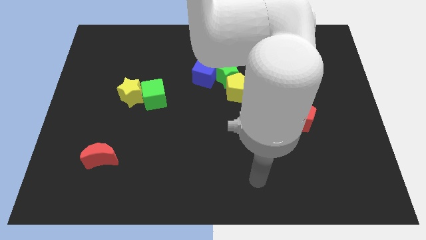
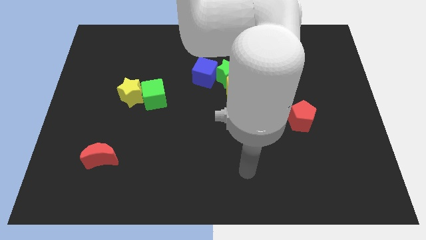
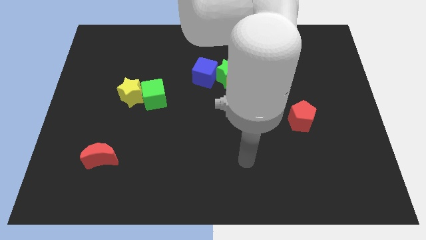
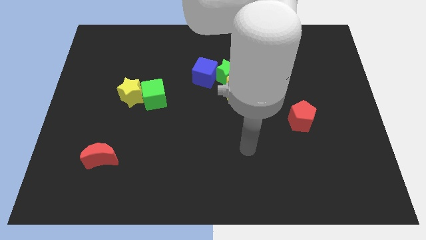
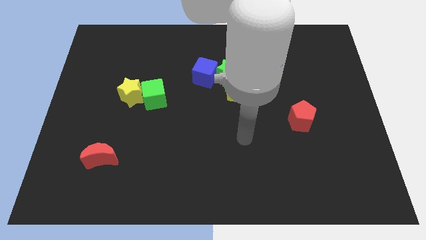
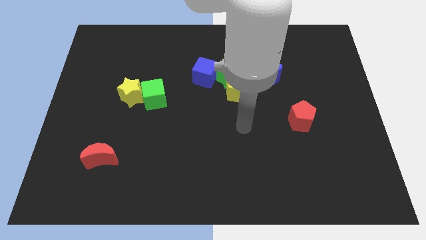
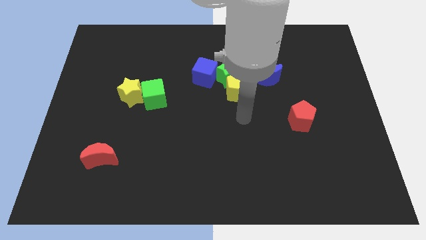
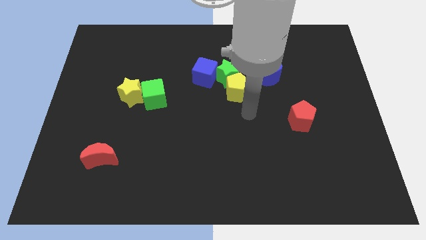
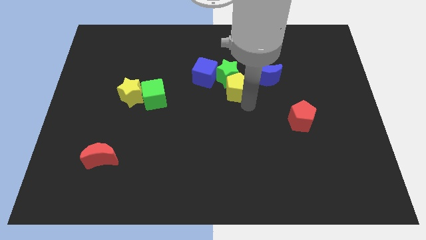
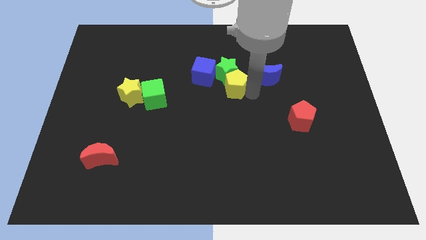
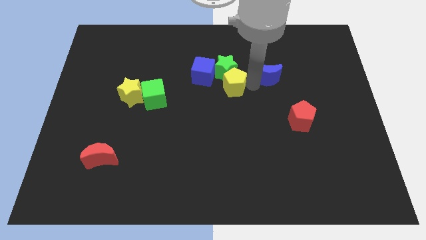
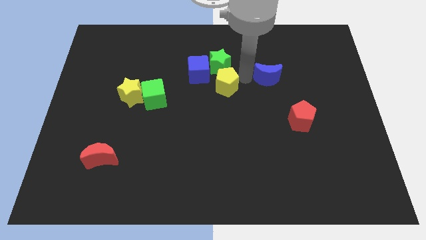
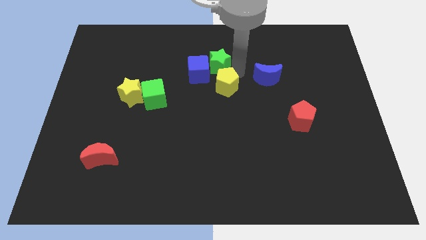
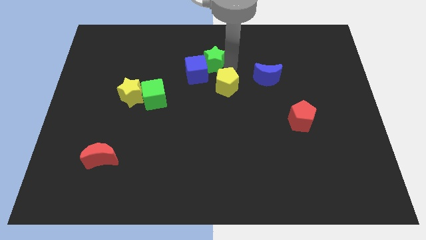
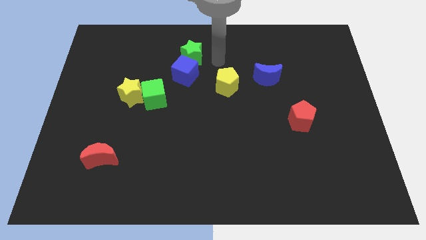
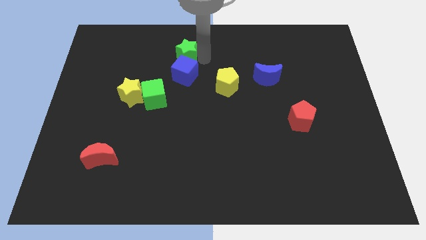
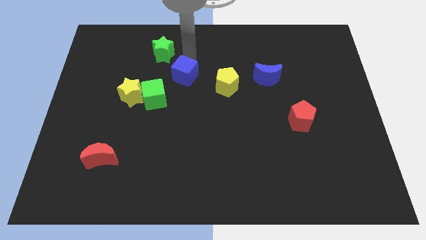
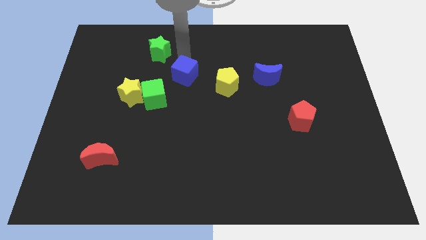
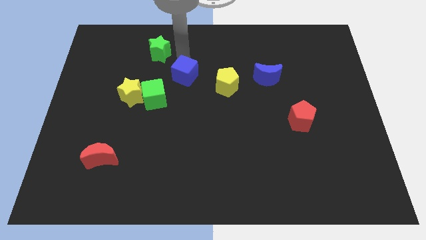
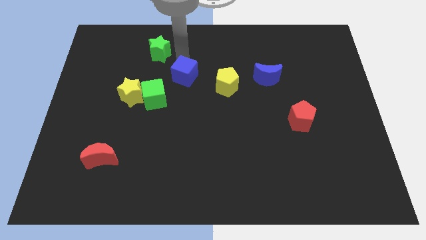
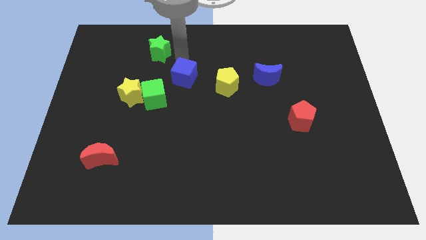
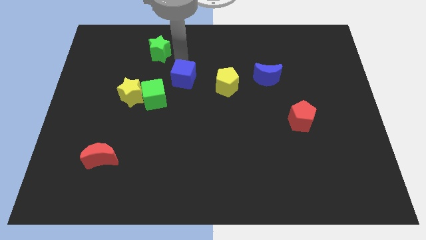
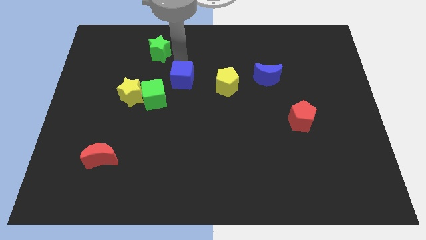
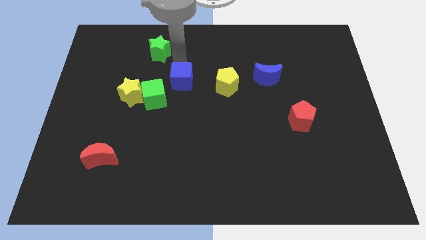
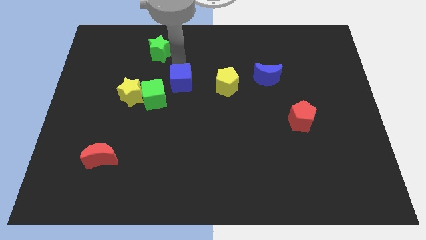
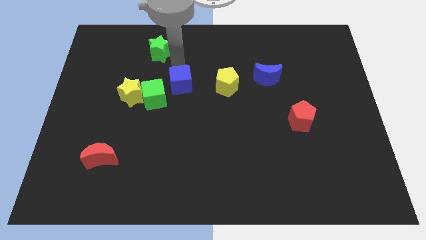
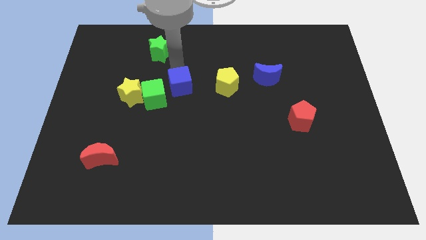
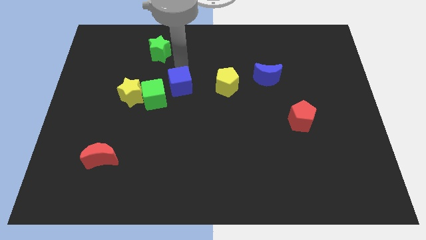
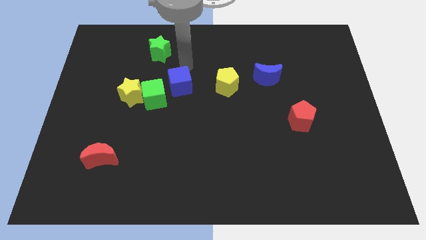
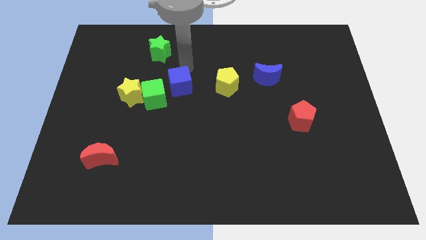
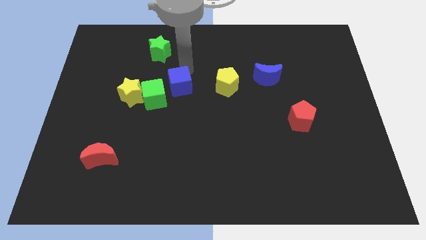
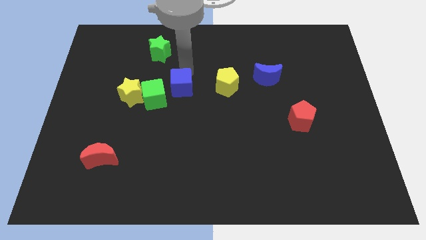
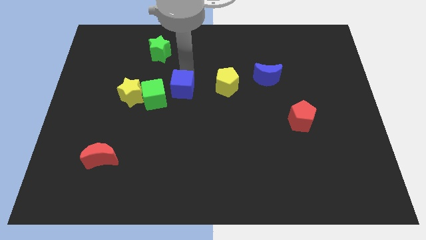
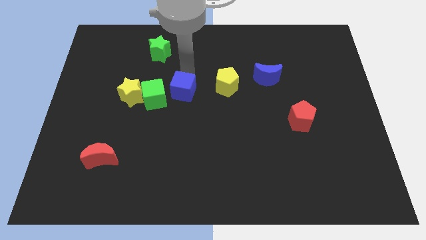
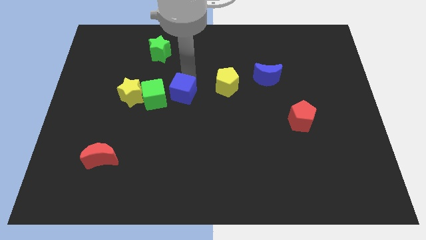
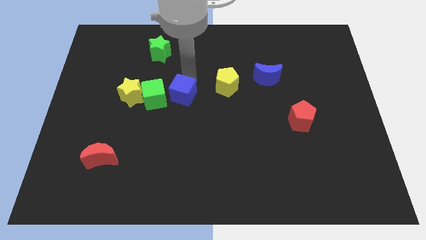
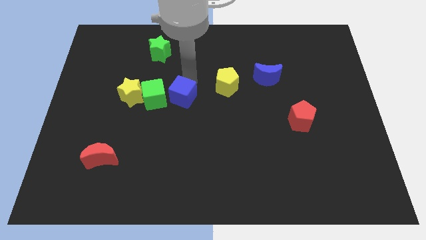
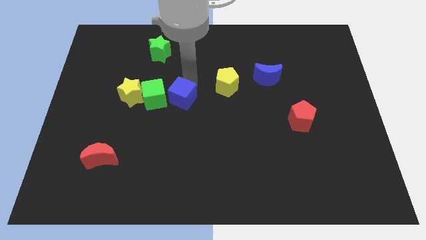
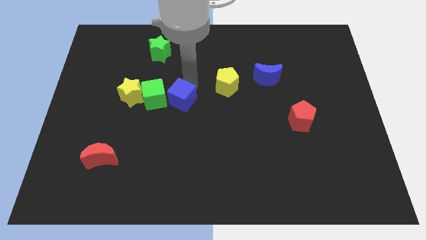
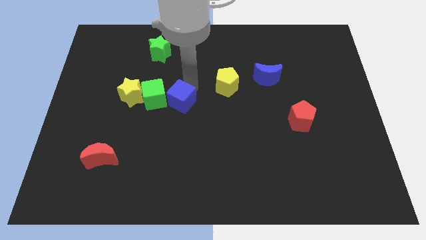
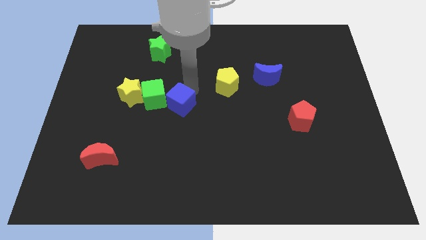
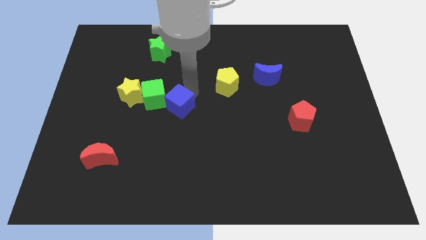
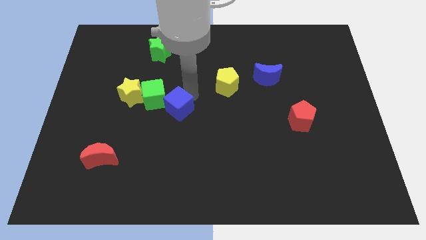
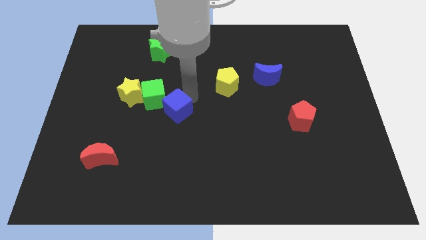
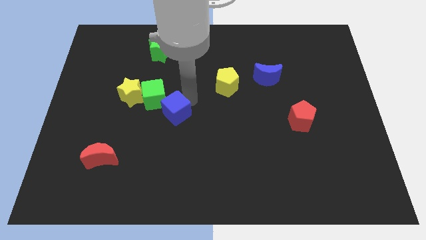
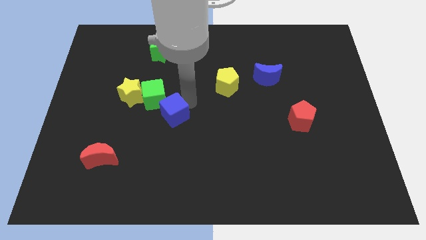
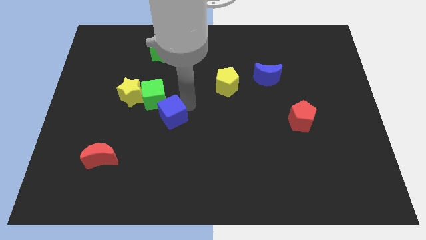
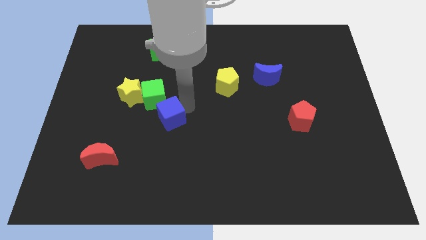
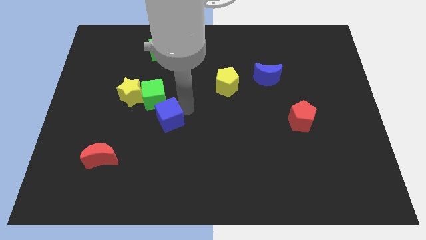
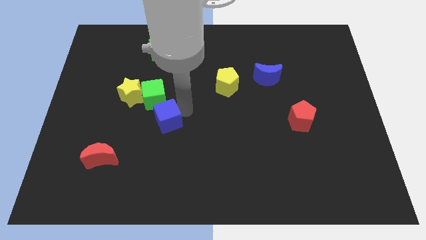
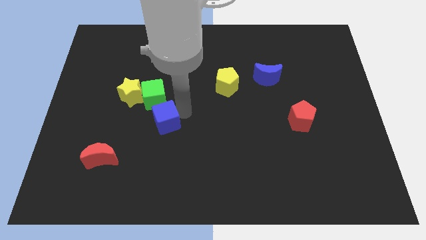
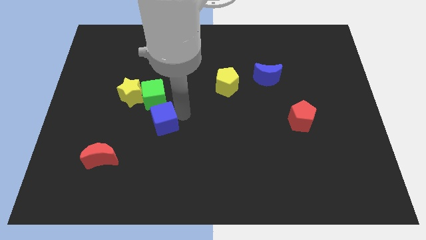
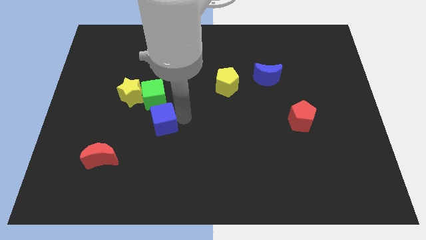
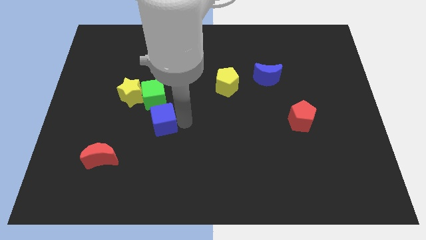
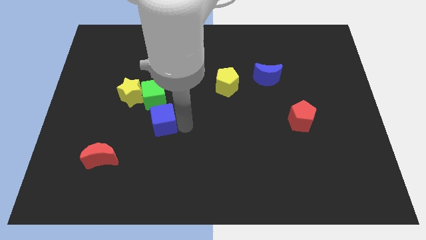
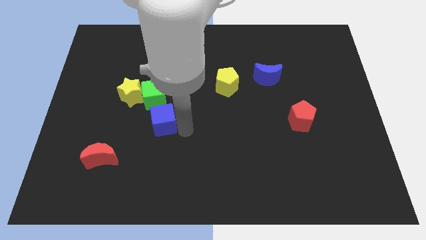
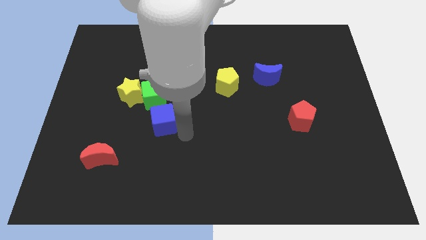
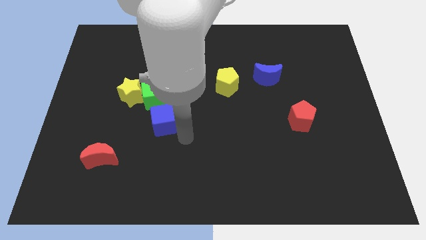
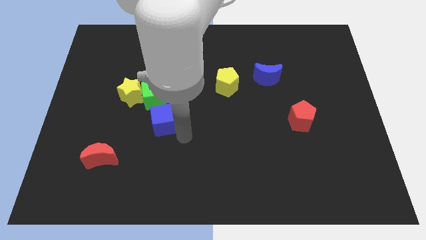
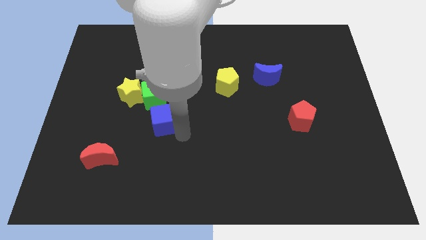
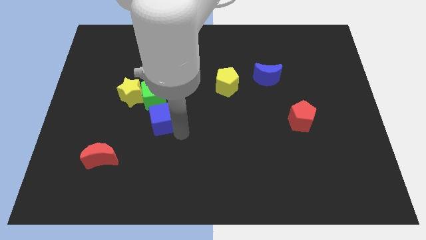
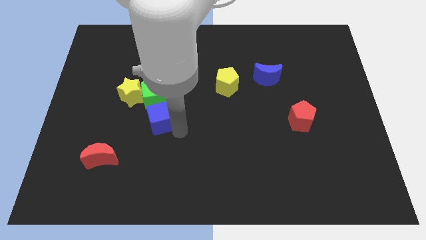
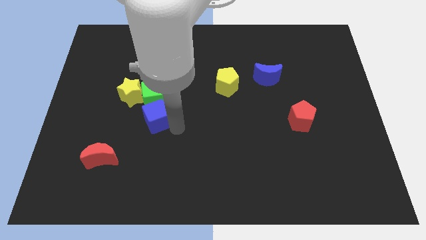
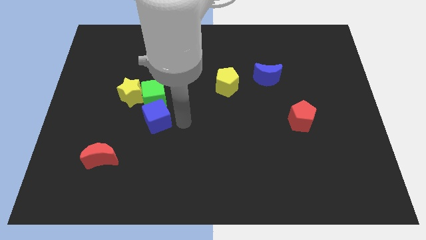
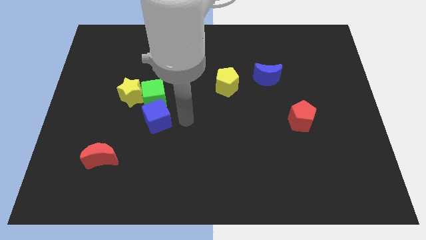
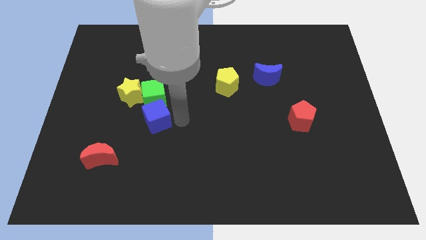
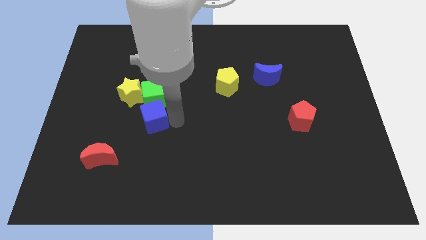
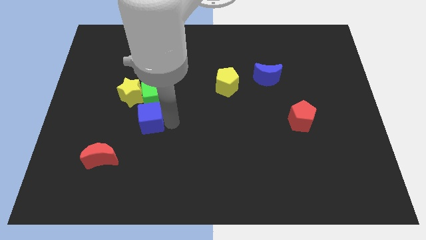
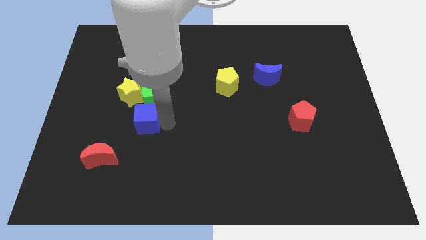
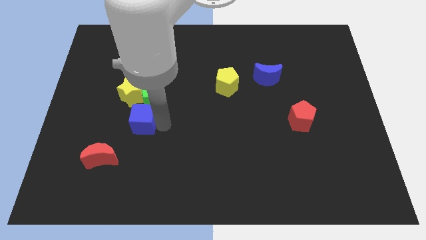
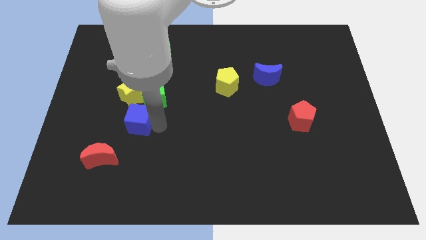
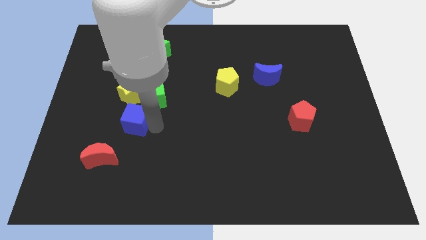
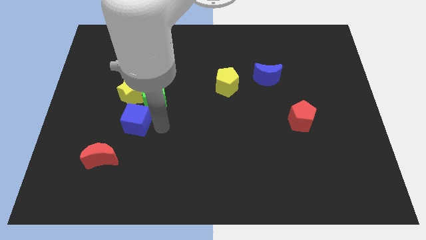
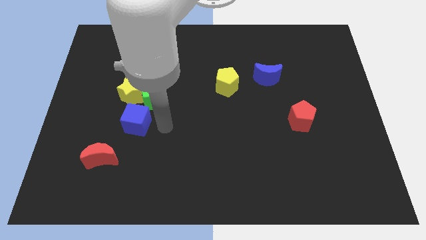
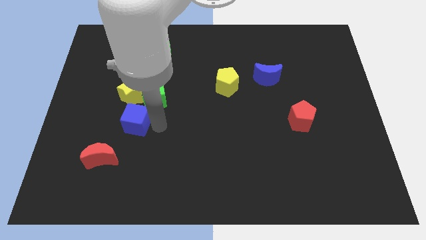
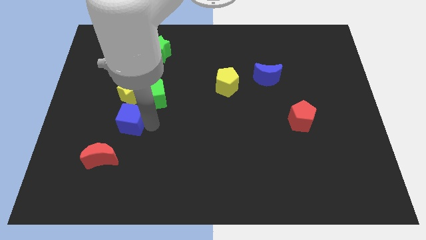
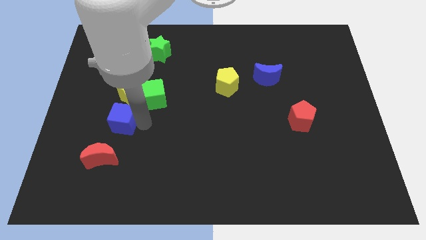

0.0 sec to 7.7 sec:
put the blue cube to the top of the red moon
